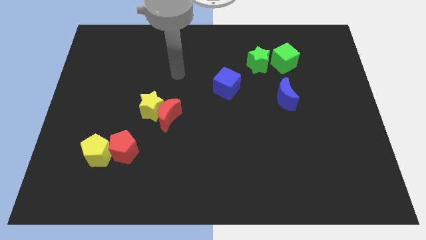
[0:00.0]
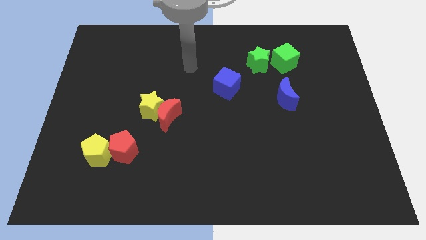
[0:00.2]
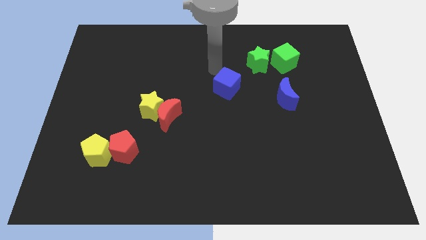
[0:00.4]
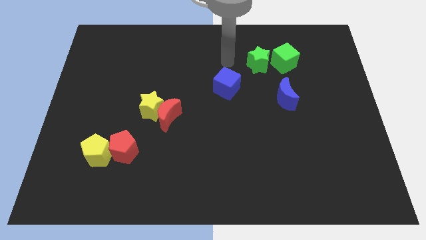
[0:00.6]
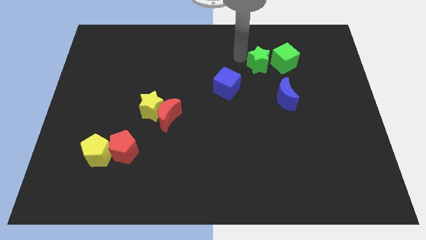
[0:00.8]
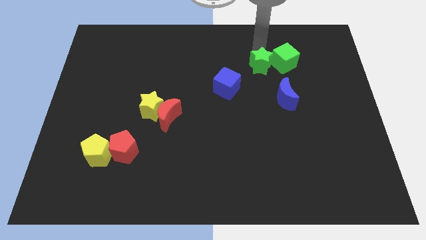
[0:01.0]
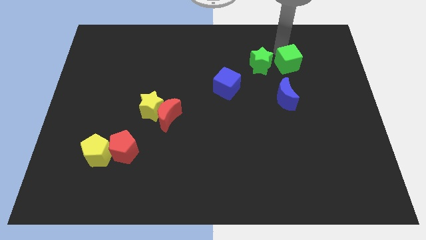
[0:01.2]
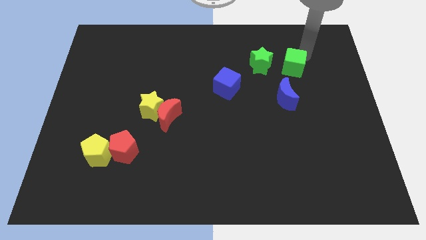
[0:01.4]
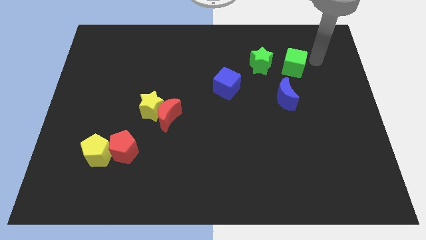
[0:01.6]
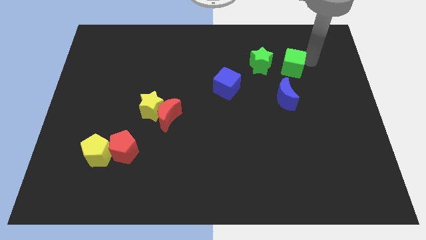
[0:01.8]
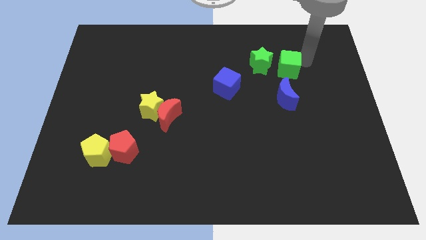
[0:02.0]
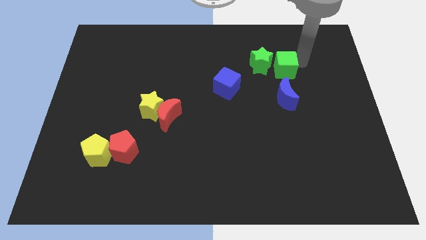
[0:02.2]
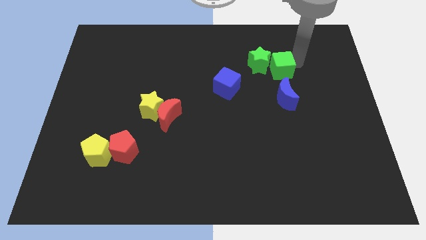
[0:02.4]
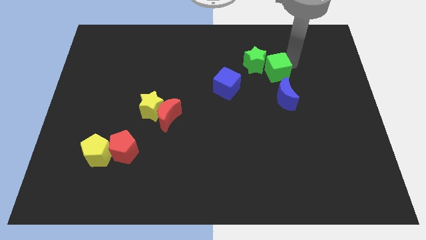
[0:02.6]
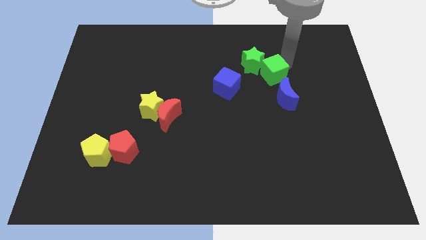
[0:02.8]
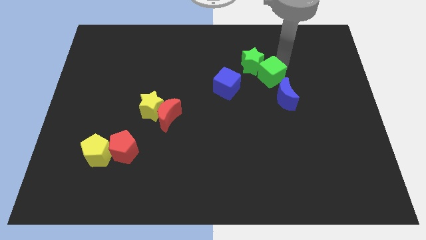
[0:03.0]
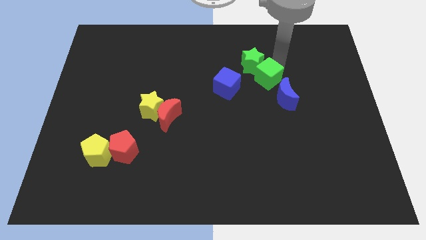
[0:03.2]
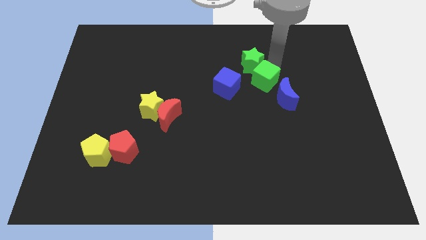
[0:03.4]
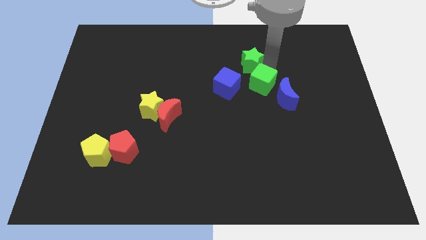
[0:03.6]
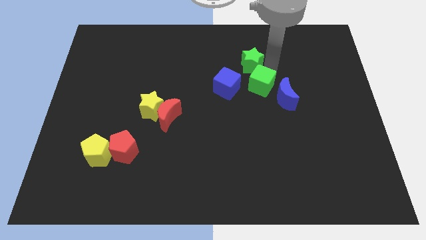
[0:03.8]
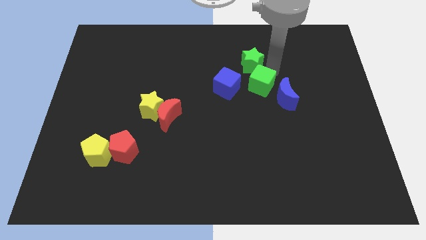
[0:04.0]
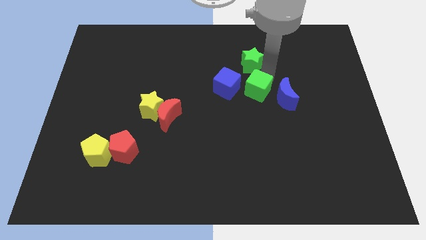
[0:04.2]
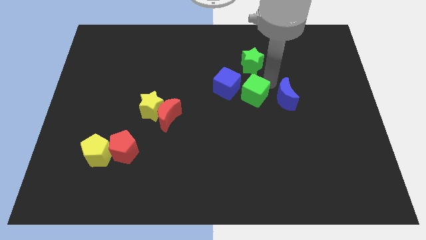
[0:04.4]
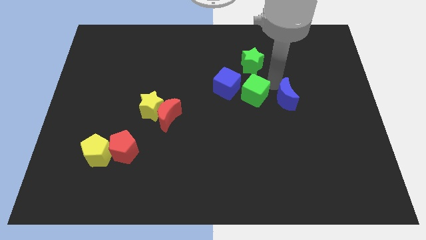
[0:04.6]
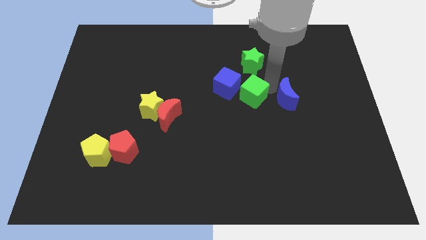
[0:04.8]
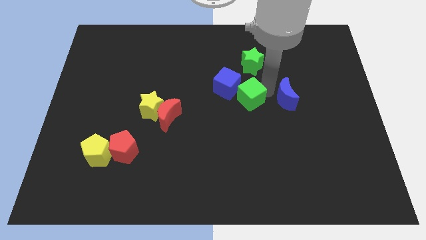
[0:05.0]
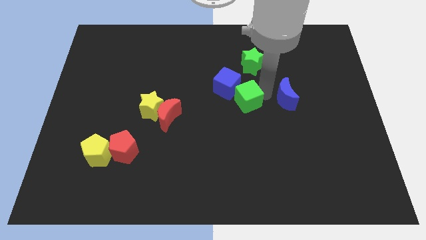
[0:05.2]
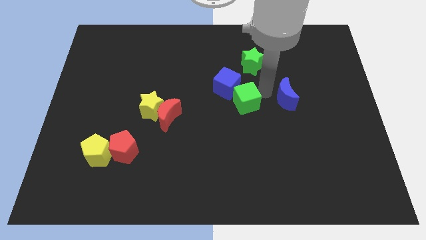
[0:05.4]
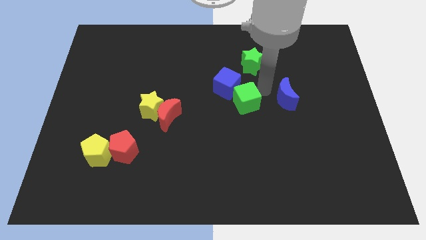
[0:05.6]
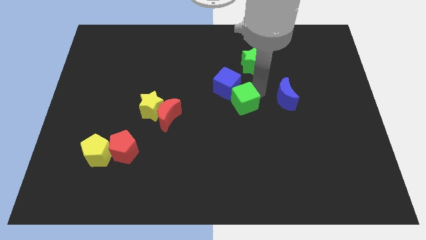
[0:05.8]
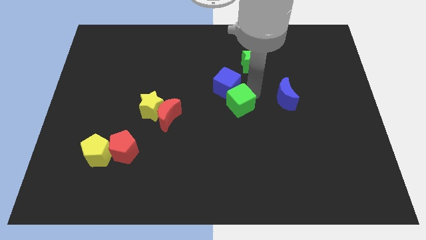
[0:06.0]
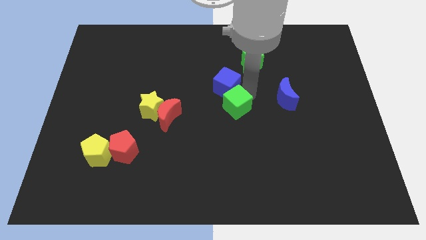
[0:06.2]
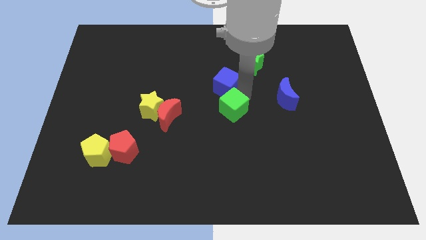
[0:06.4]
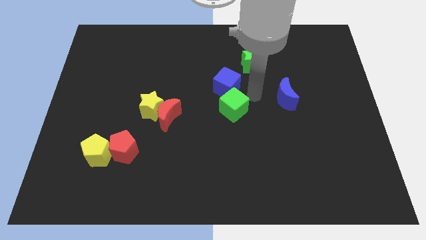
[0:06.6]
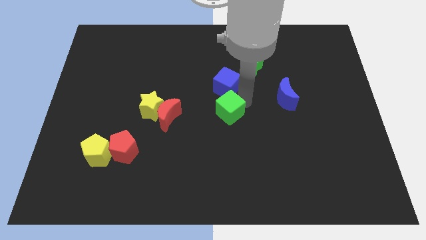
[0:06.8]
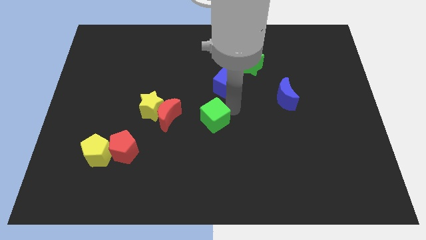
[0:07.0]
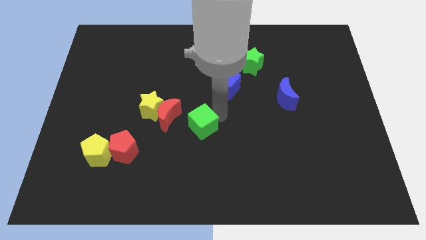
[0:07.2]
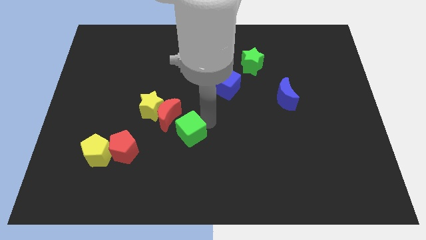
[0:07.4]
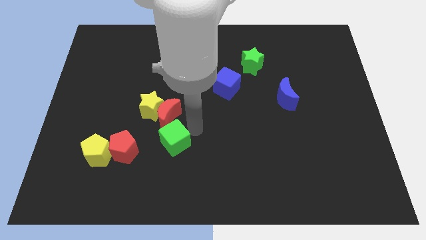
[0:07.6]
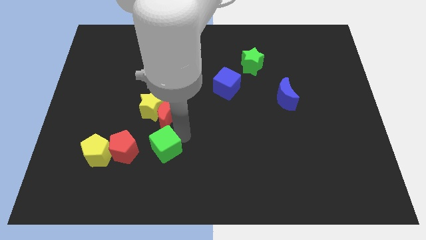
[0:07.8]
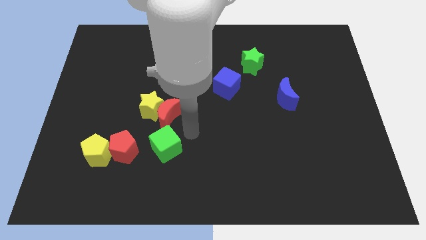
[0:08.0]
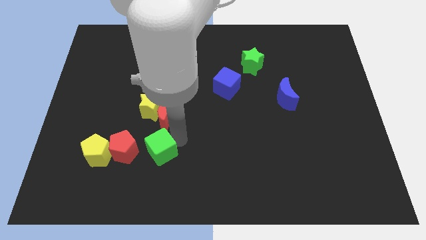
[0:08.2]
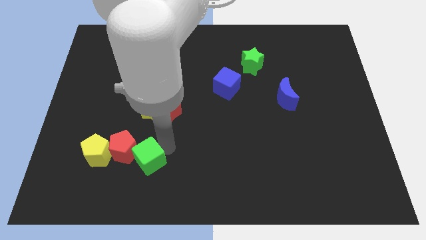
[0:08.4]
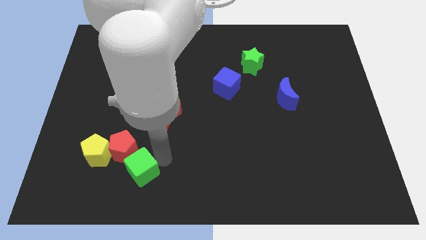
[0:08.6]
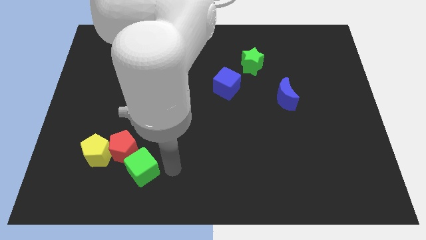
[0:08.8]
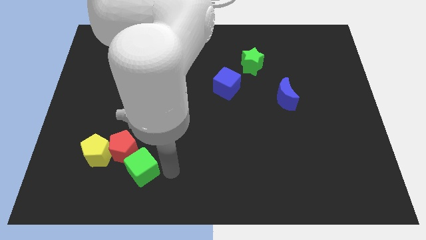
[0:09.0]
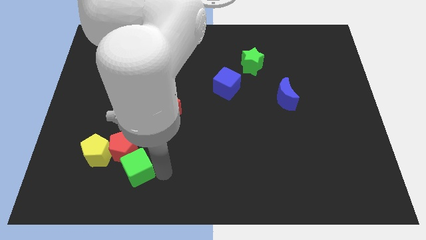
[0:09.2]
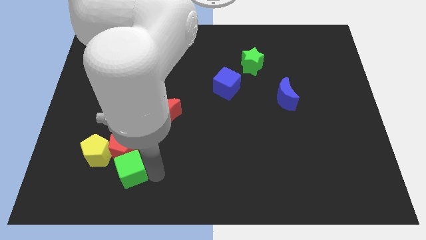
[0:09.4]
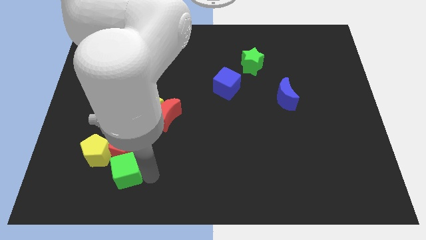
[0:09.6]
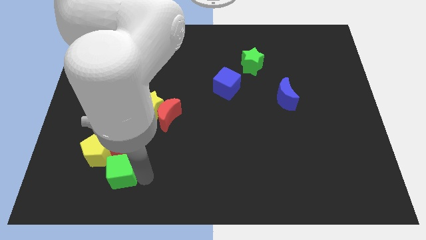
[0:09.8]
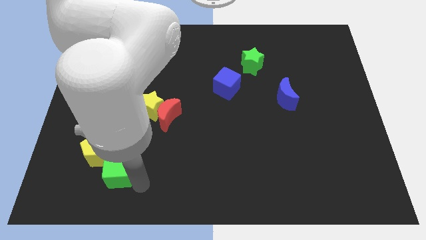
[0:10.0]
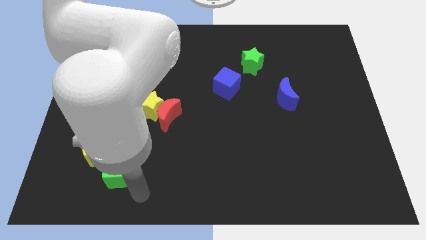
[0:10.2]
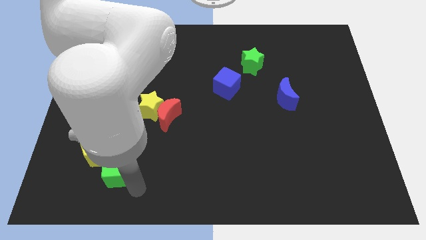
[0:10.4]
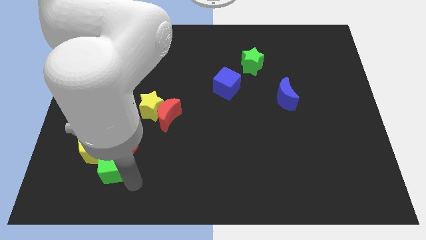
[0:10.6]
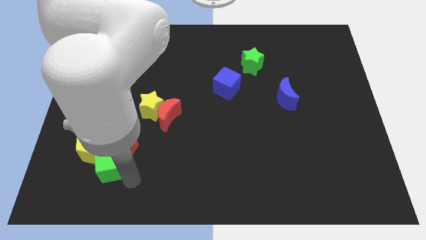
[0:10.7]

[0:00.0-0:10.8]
put the green cube close to the yellow pentagon
